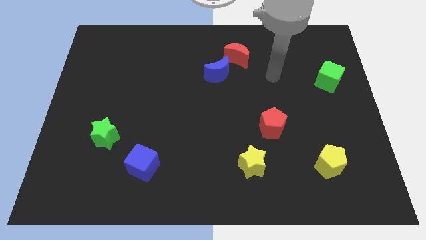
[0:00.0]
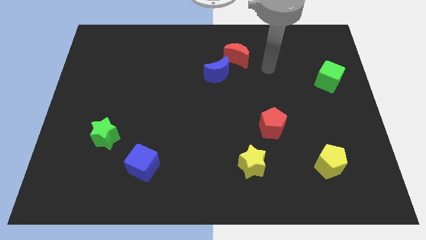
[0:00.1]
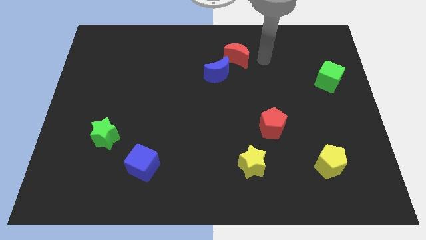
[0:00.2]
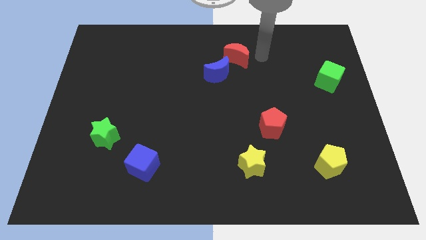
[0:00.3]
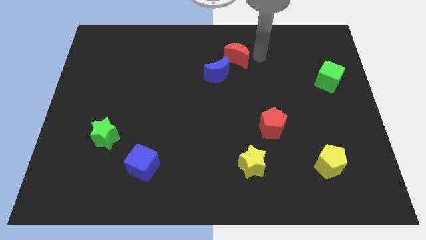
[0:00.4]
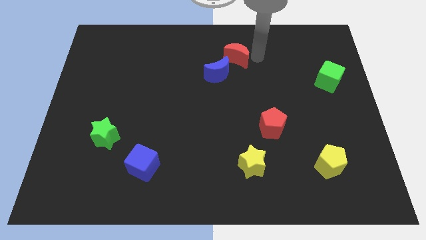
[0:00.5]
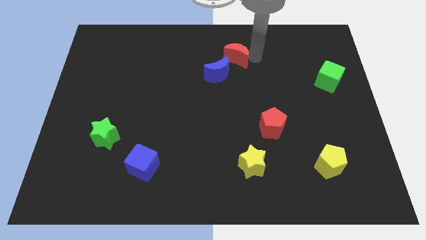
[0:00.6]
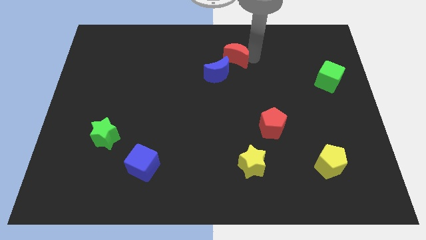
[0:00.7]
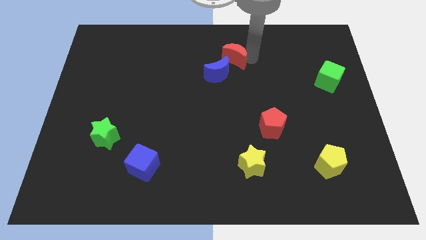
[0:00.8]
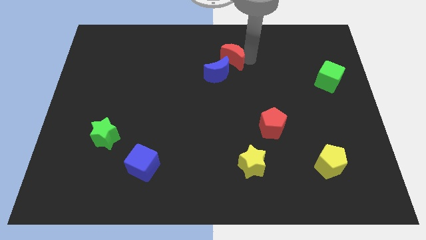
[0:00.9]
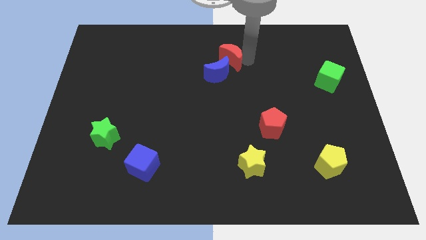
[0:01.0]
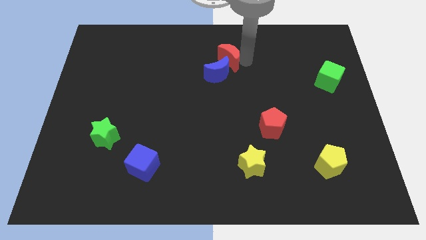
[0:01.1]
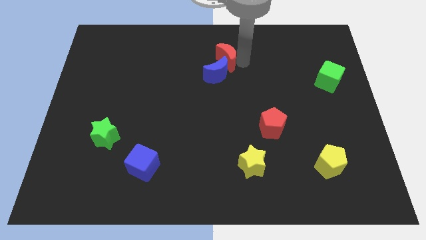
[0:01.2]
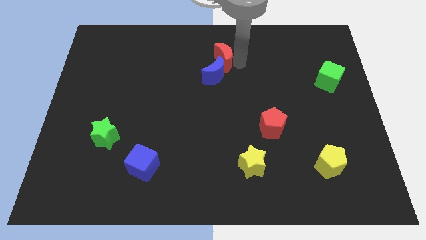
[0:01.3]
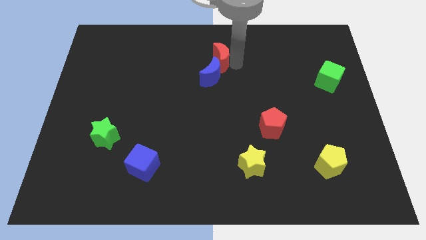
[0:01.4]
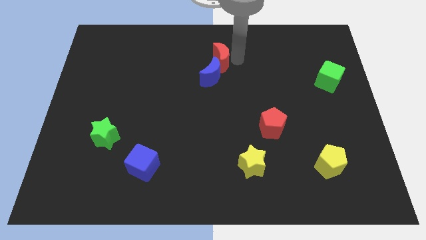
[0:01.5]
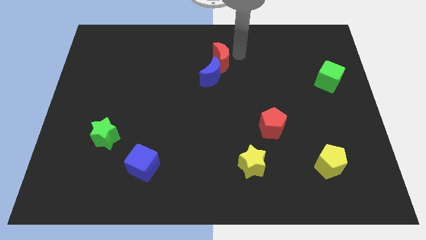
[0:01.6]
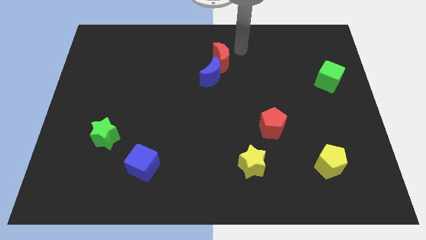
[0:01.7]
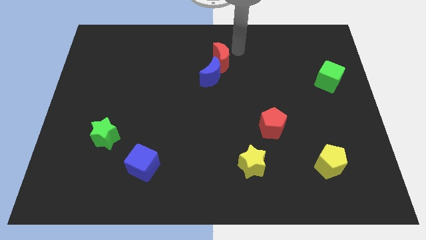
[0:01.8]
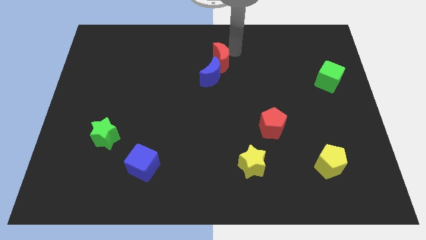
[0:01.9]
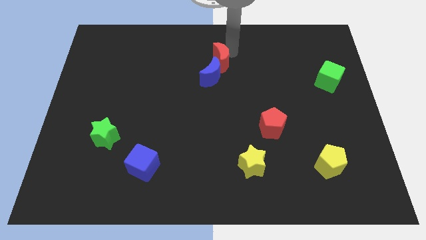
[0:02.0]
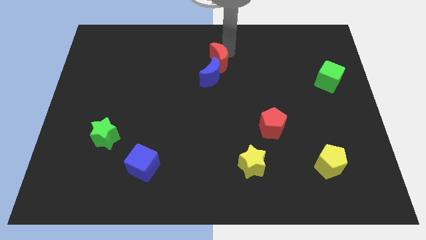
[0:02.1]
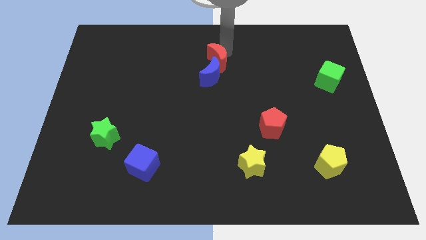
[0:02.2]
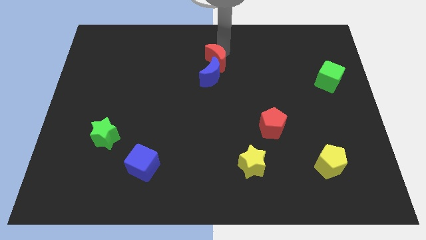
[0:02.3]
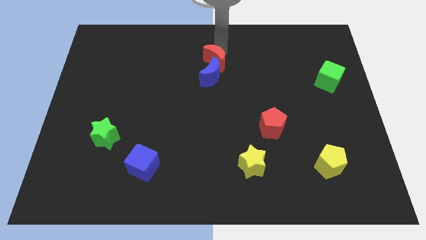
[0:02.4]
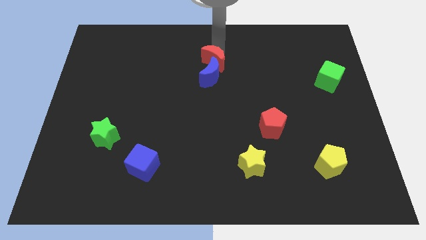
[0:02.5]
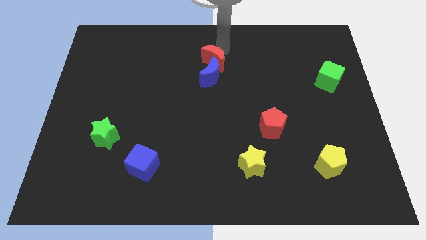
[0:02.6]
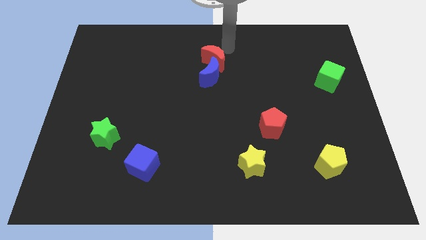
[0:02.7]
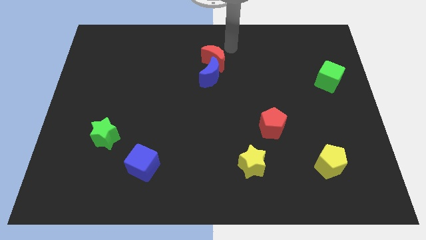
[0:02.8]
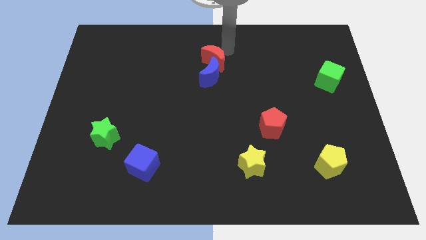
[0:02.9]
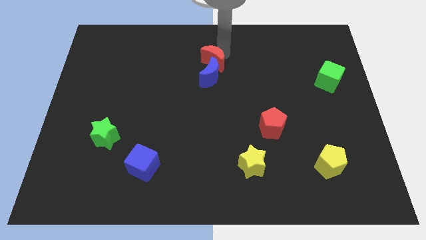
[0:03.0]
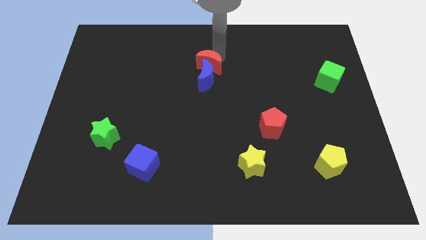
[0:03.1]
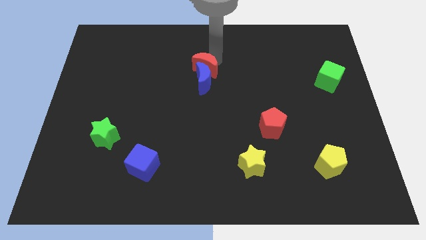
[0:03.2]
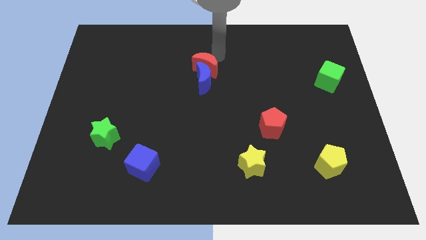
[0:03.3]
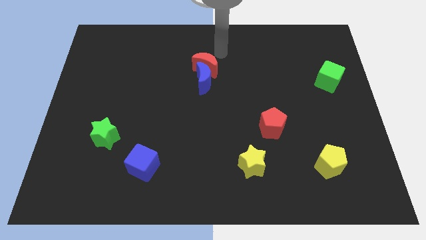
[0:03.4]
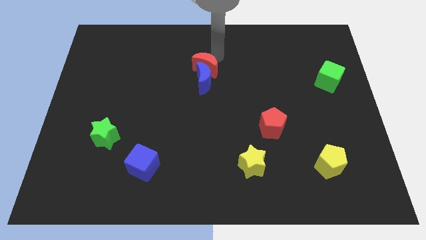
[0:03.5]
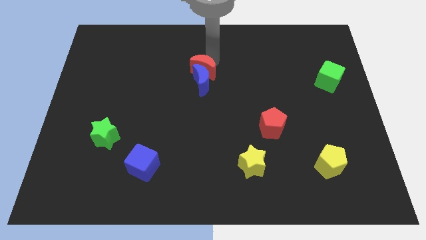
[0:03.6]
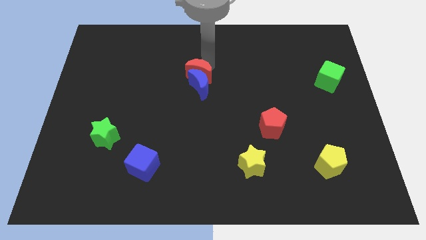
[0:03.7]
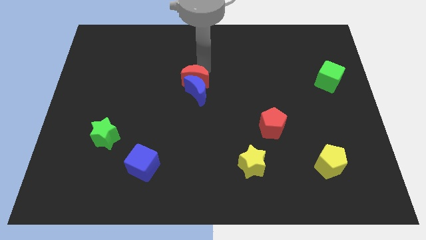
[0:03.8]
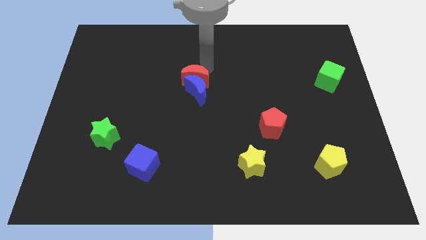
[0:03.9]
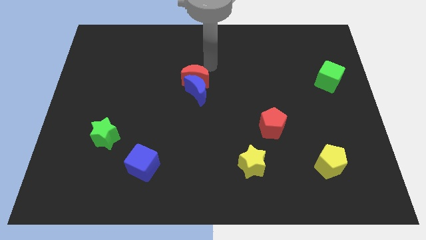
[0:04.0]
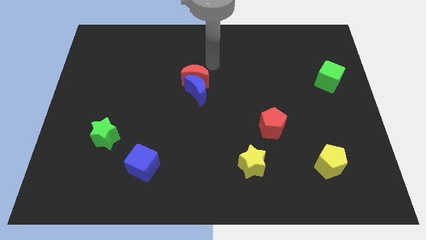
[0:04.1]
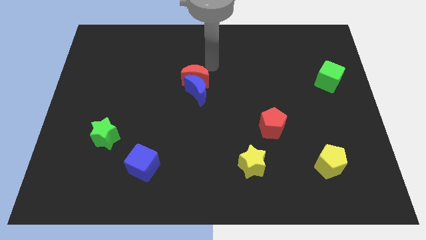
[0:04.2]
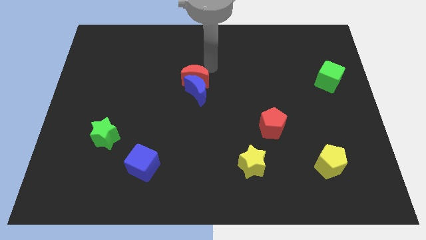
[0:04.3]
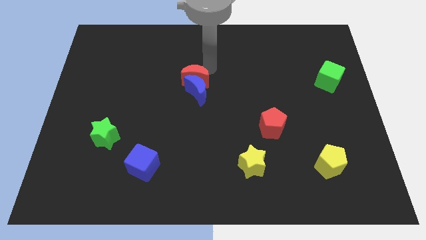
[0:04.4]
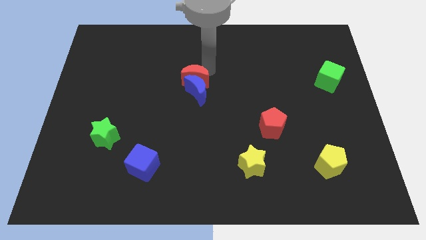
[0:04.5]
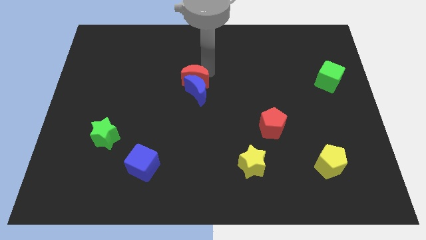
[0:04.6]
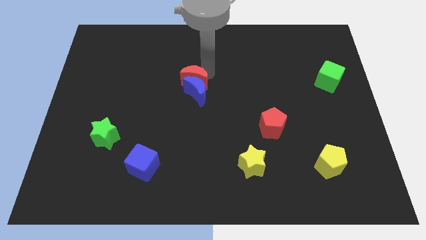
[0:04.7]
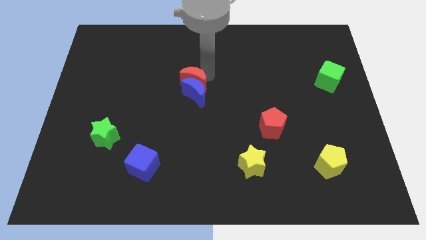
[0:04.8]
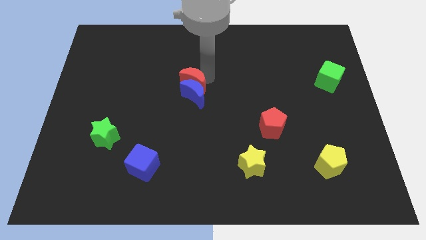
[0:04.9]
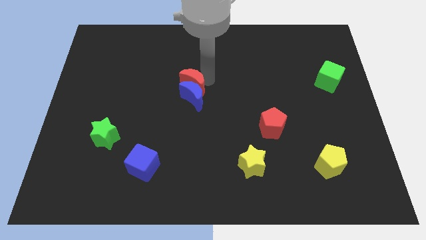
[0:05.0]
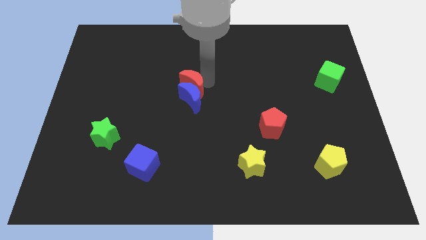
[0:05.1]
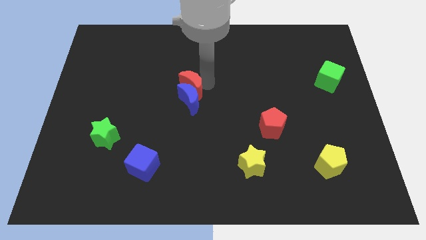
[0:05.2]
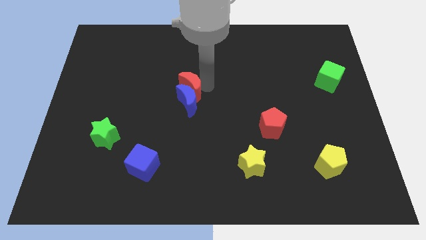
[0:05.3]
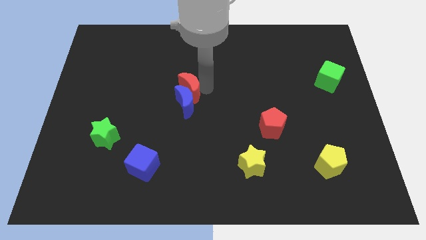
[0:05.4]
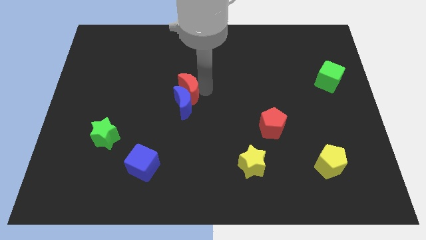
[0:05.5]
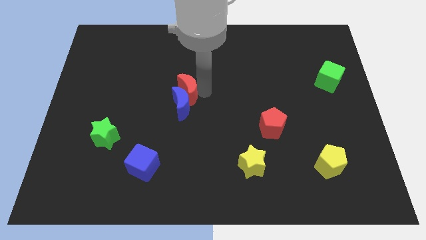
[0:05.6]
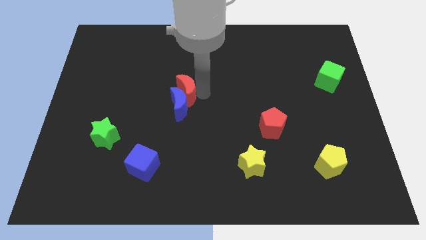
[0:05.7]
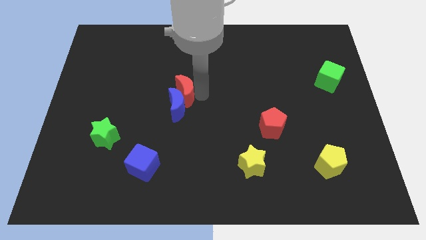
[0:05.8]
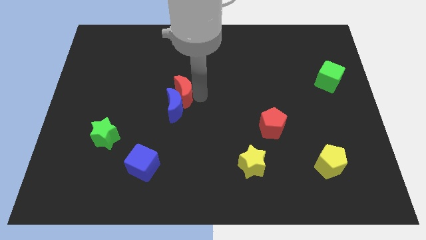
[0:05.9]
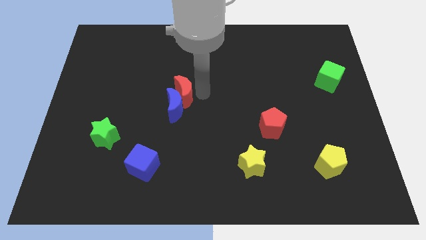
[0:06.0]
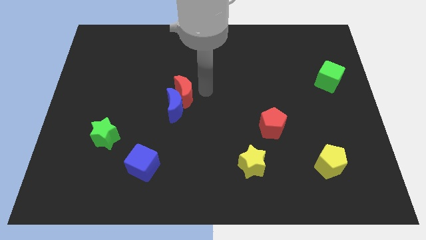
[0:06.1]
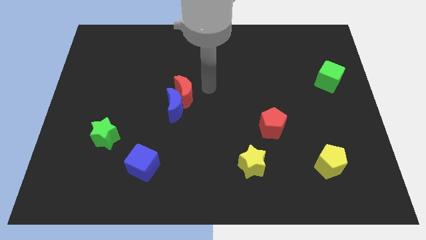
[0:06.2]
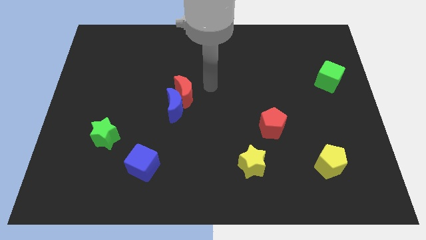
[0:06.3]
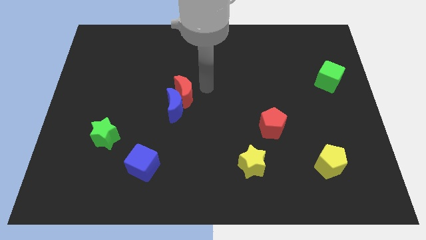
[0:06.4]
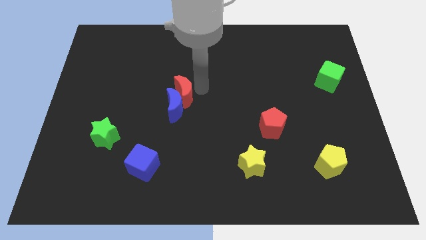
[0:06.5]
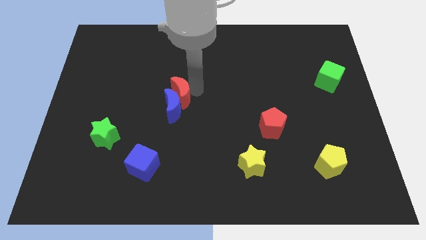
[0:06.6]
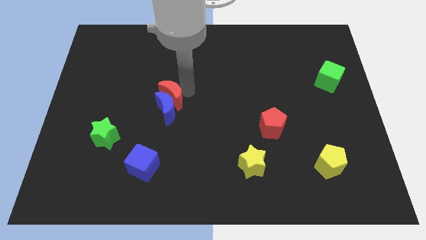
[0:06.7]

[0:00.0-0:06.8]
push the red moon down and left

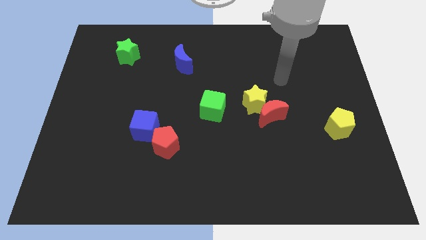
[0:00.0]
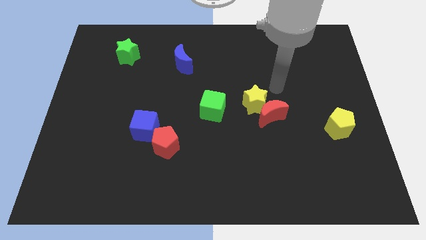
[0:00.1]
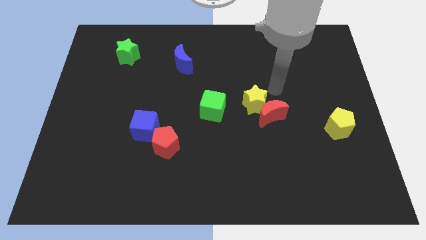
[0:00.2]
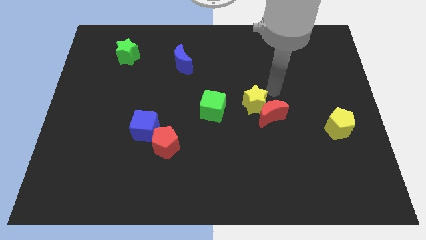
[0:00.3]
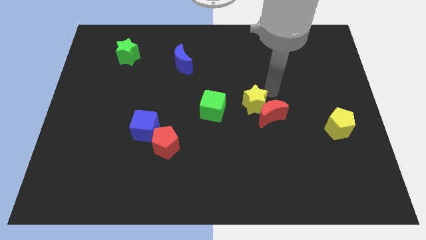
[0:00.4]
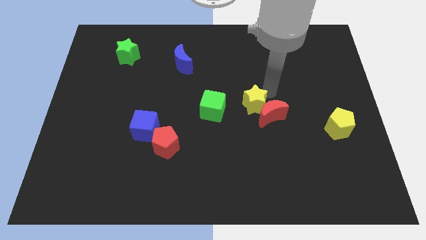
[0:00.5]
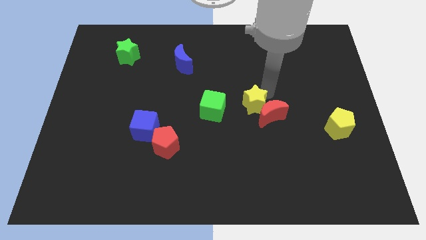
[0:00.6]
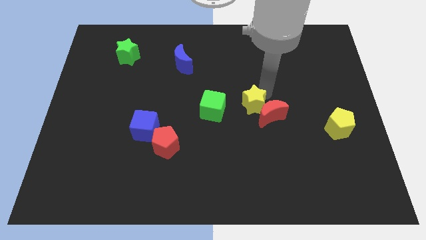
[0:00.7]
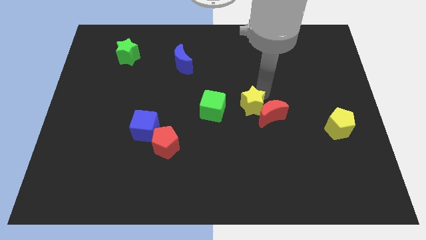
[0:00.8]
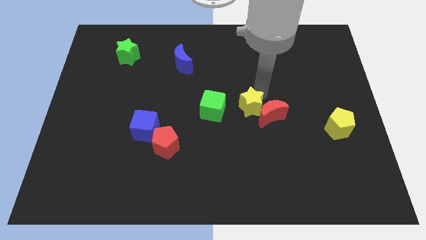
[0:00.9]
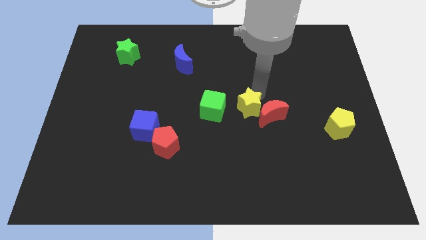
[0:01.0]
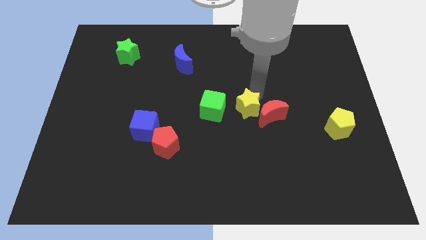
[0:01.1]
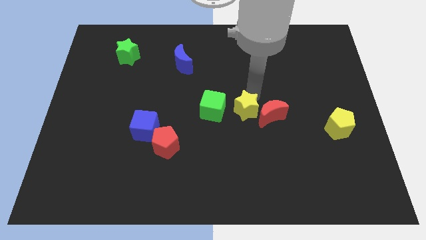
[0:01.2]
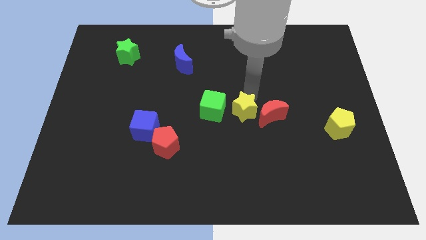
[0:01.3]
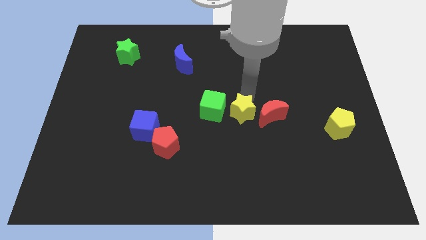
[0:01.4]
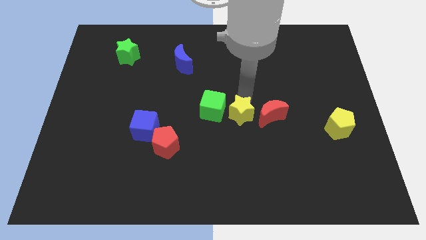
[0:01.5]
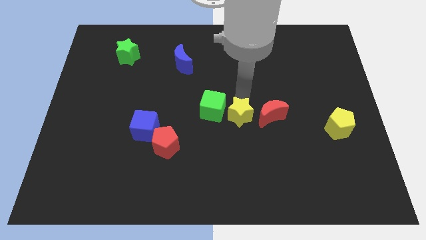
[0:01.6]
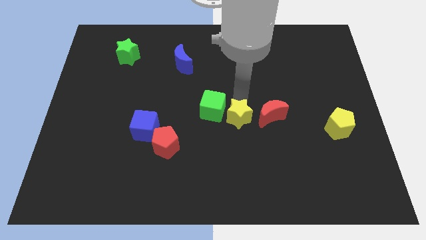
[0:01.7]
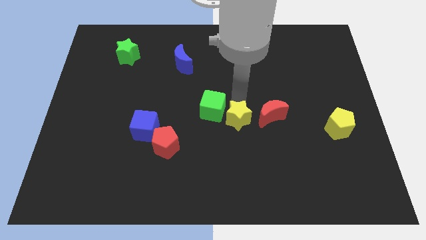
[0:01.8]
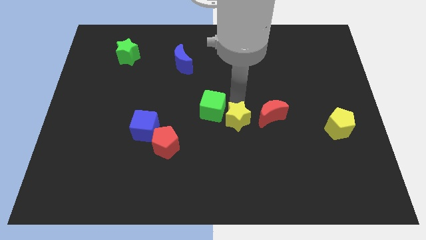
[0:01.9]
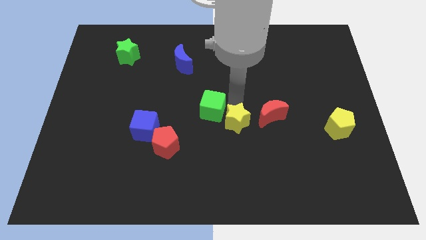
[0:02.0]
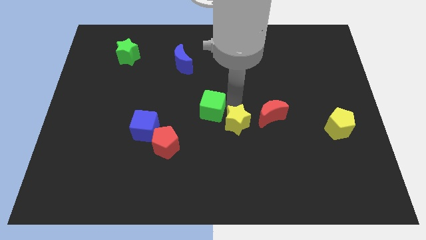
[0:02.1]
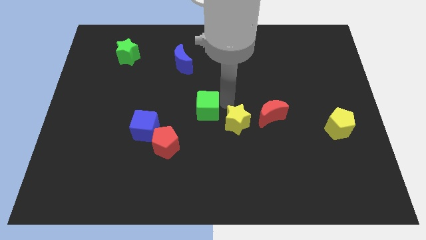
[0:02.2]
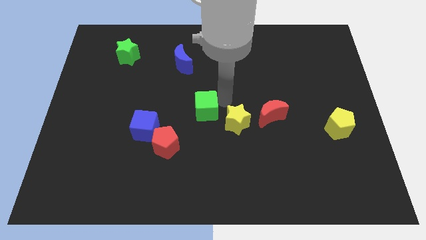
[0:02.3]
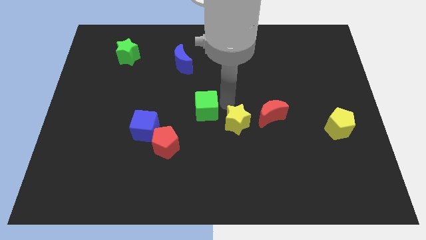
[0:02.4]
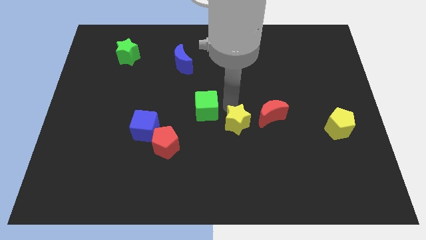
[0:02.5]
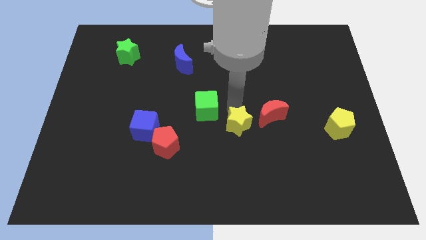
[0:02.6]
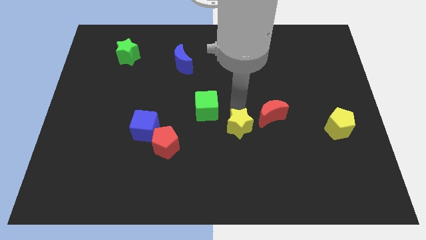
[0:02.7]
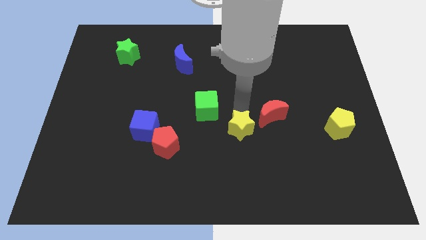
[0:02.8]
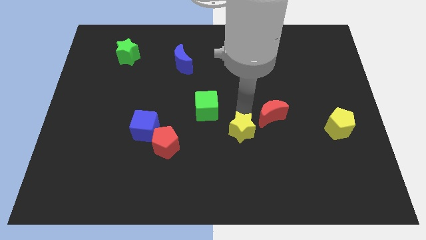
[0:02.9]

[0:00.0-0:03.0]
move the yellow star somewhat down
